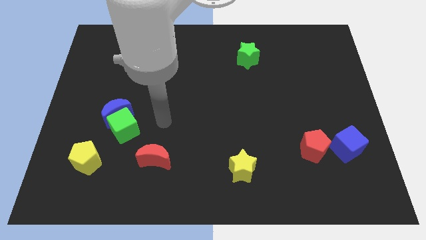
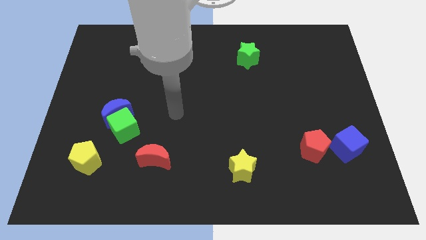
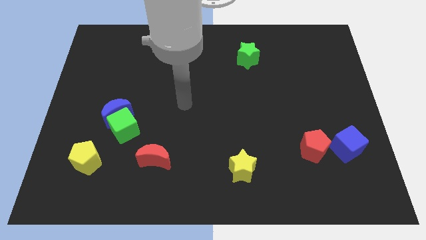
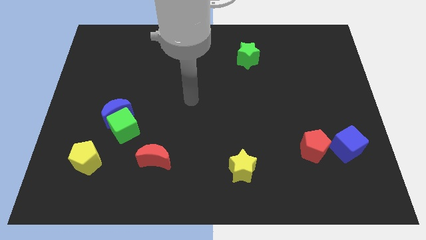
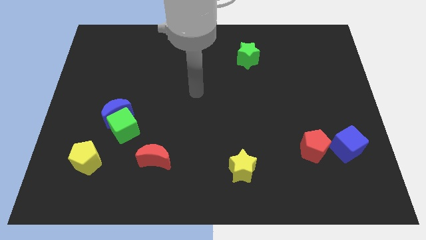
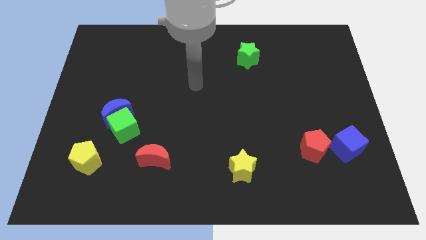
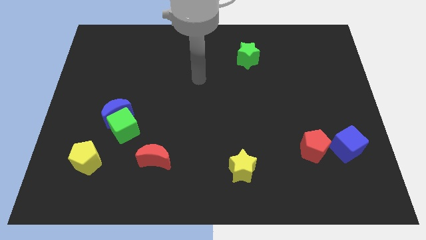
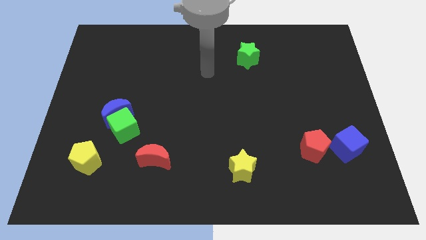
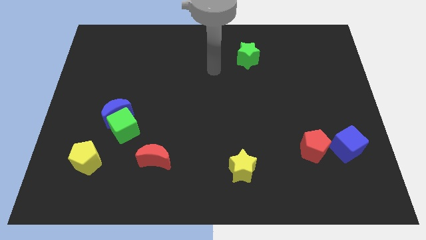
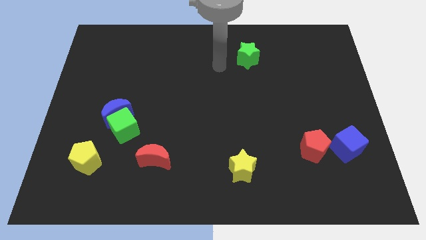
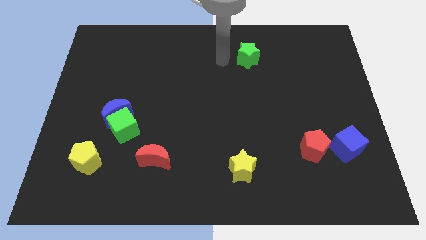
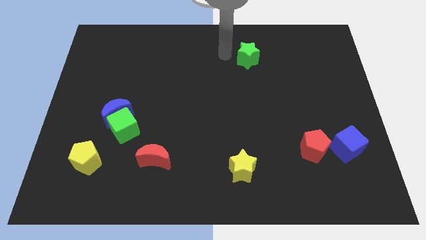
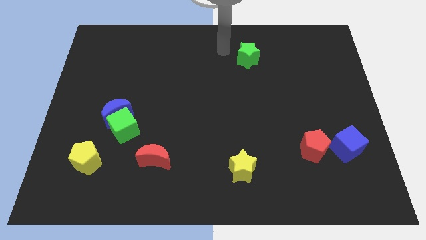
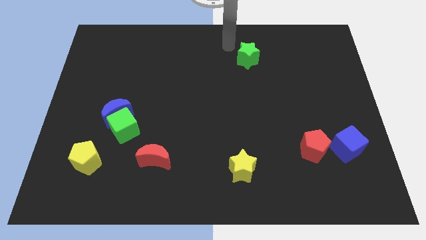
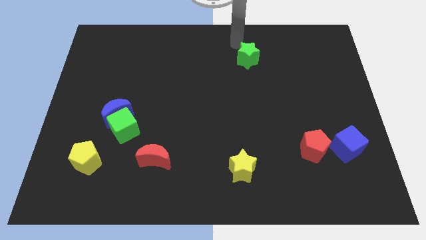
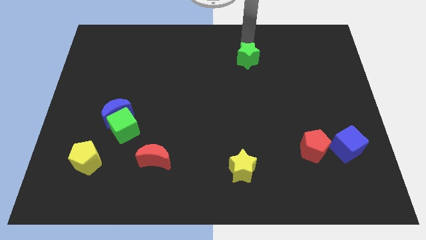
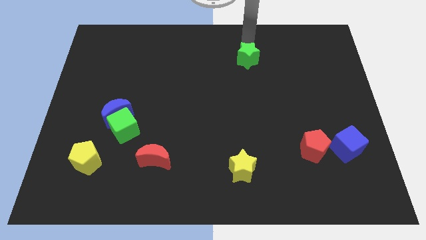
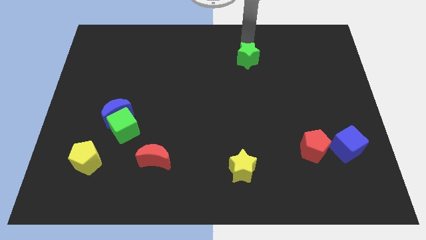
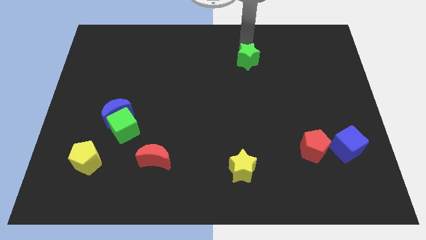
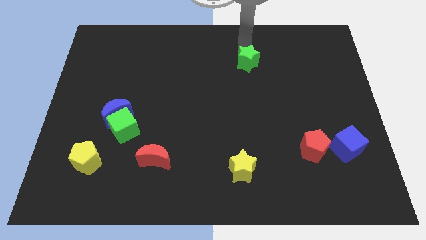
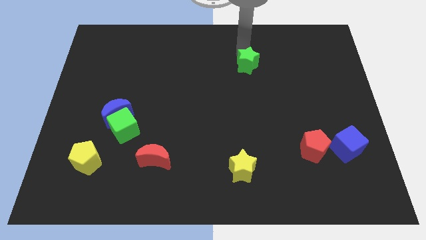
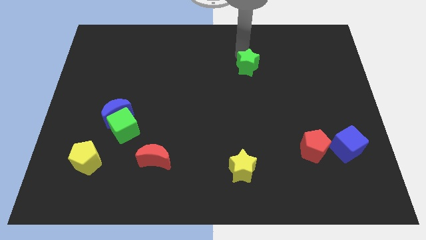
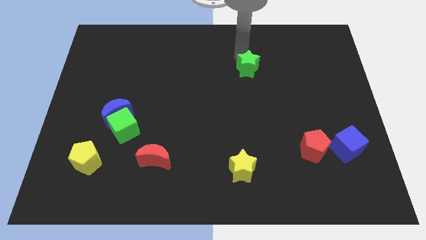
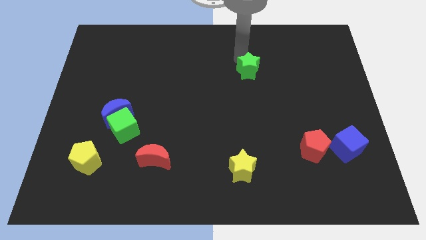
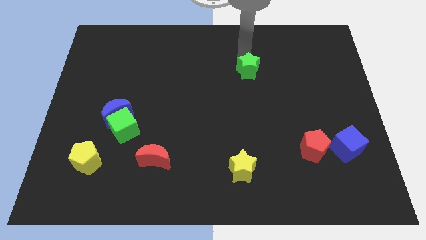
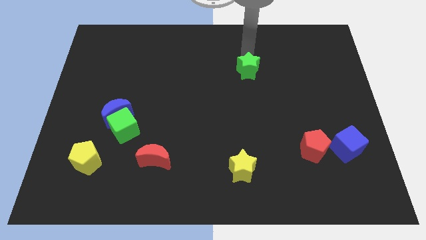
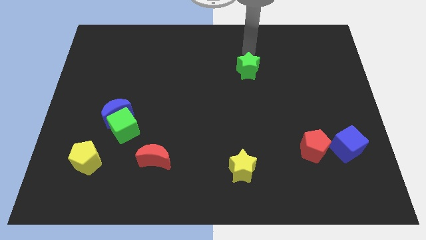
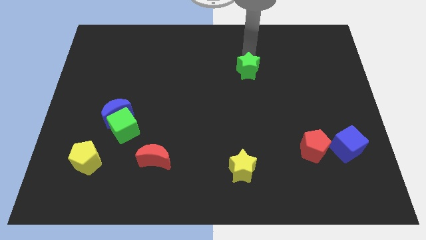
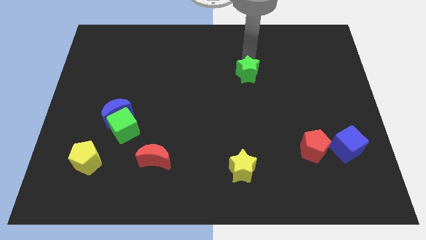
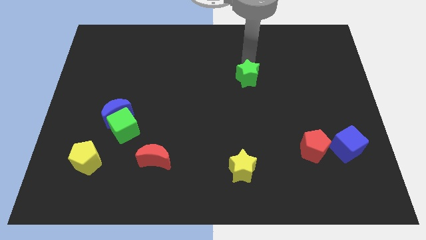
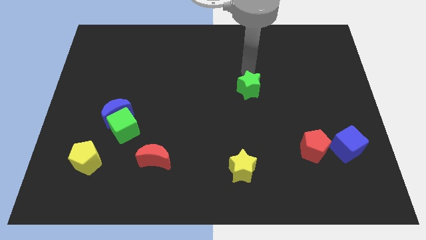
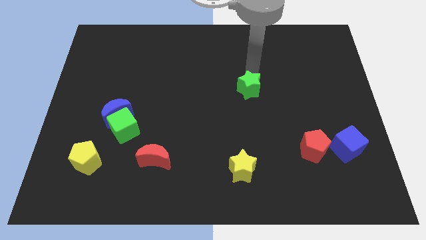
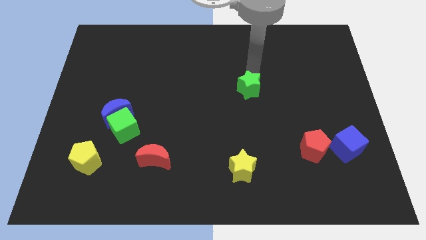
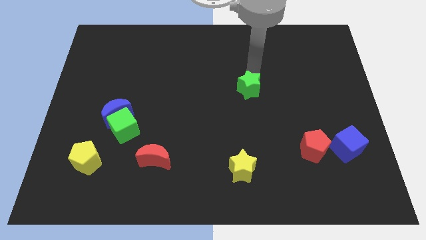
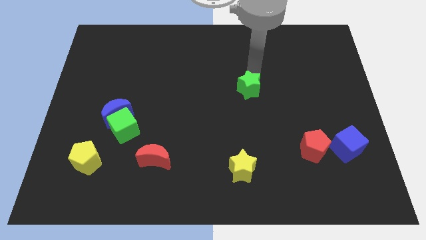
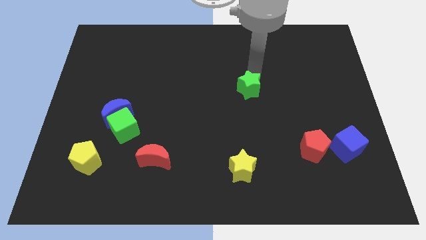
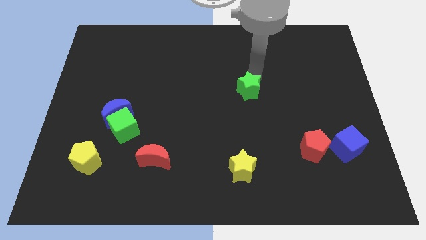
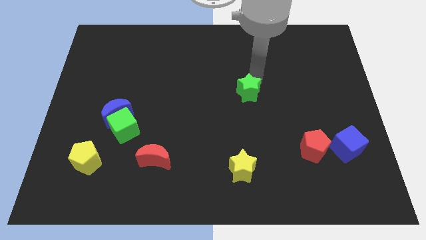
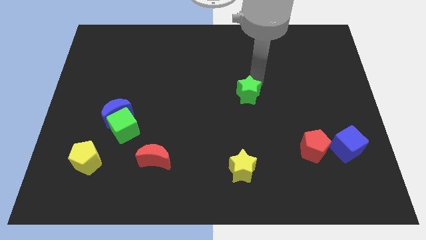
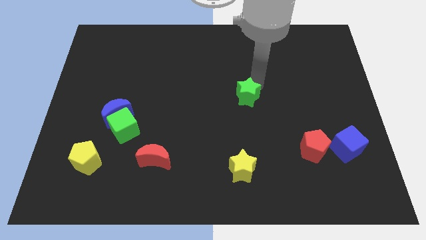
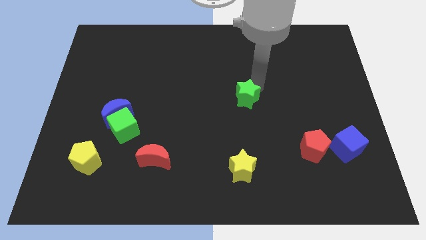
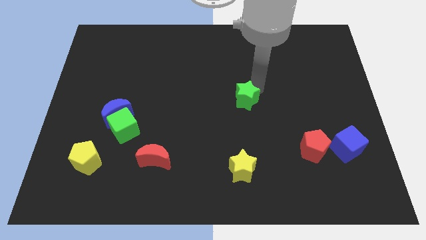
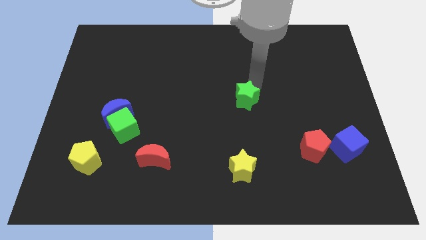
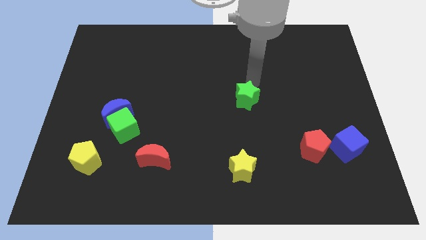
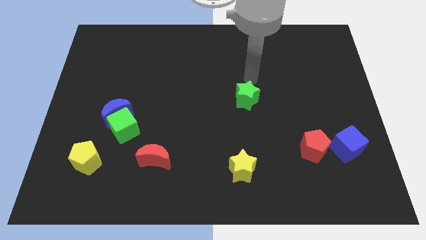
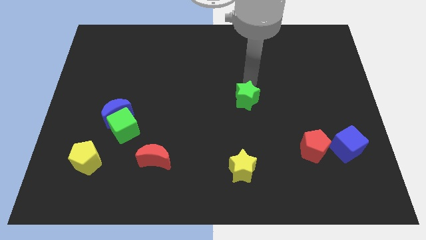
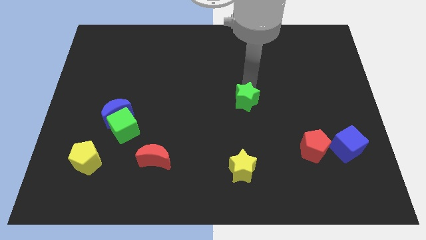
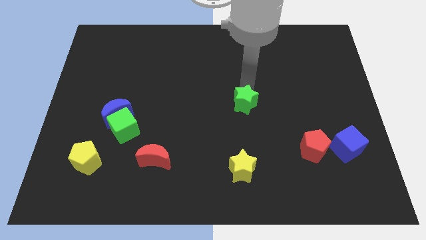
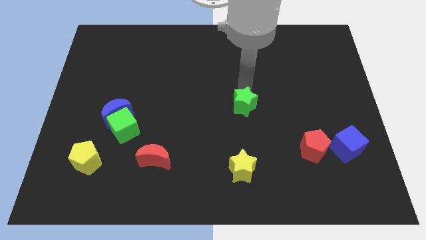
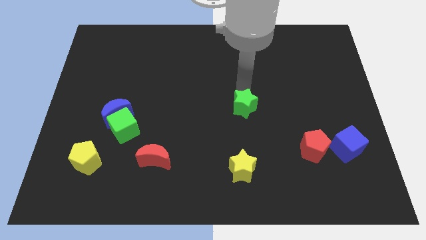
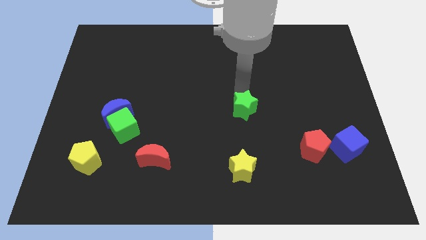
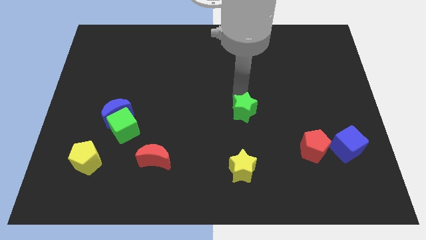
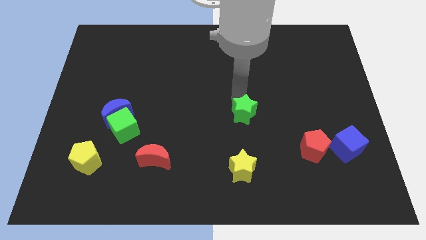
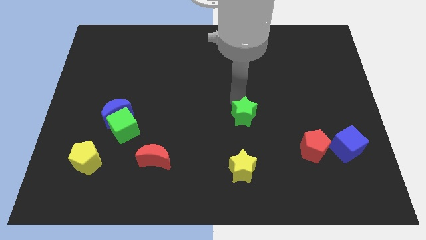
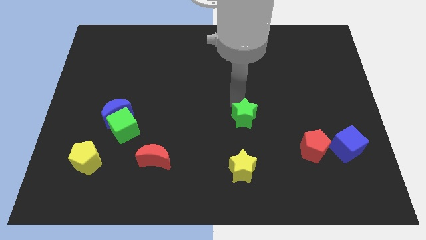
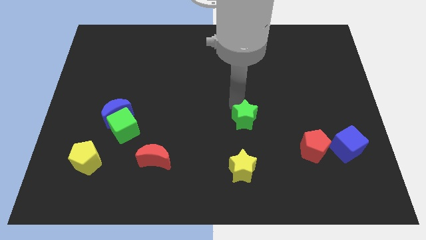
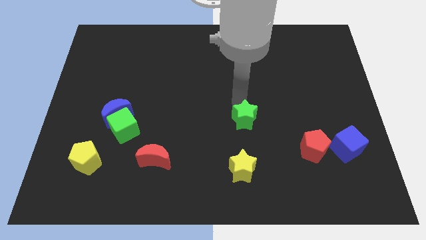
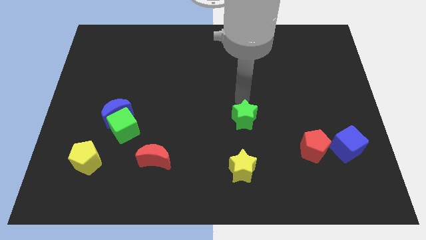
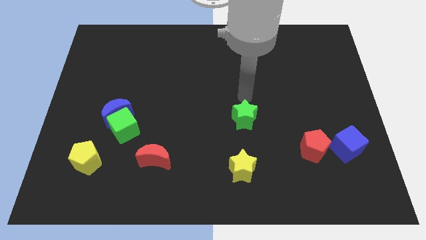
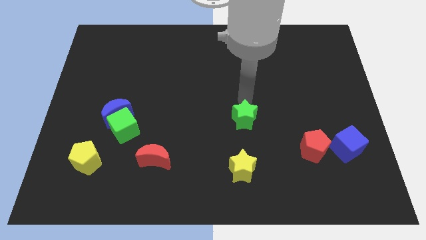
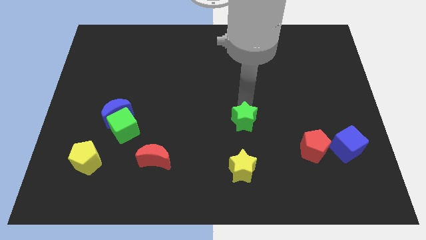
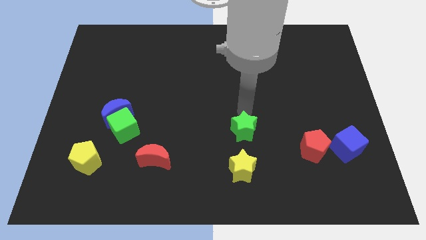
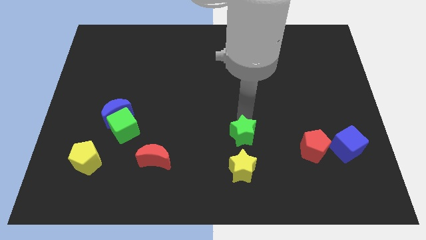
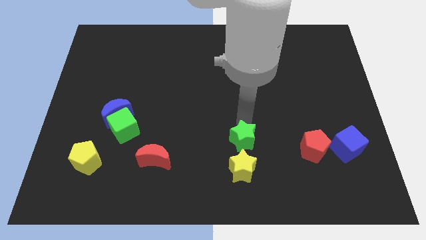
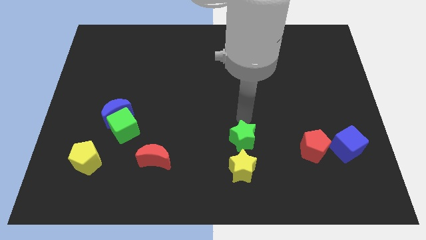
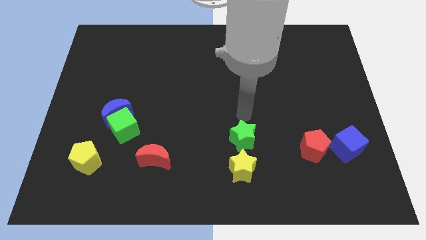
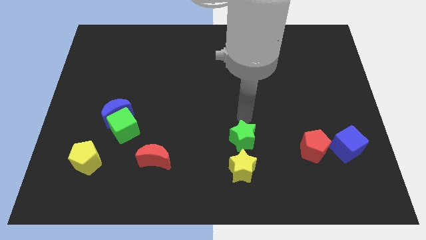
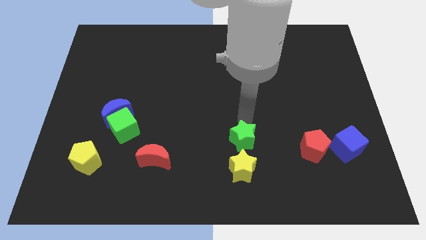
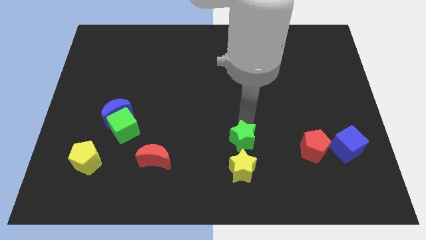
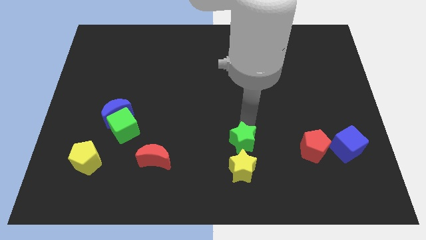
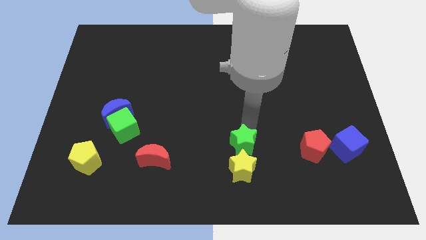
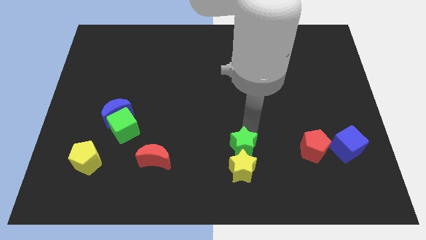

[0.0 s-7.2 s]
push the green star towards the yellow star
